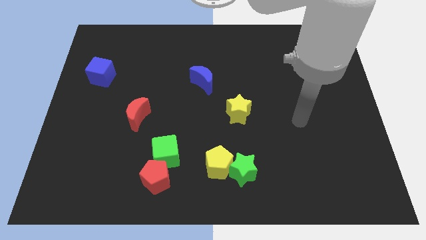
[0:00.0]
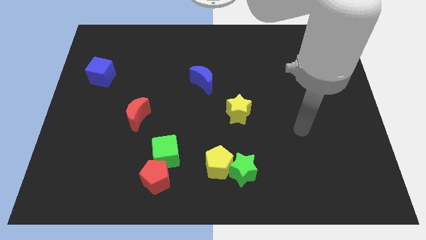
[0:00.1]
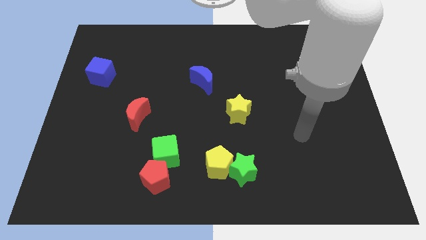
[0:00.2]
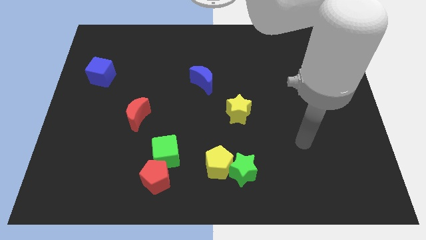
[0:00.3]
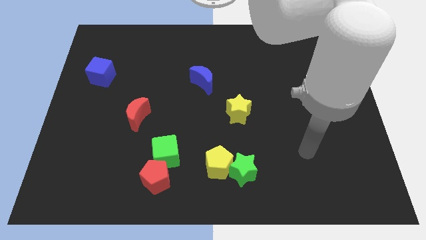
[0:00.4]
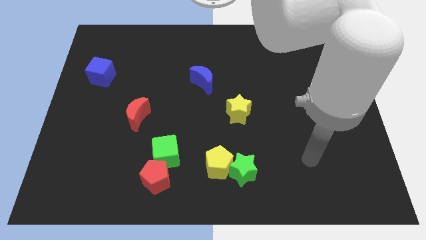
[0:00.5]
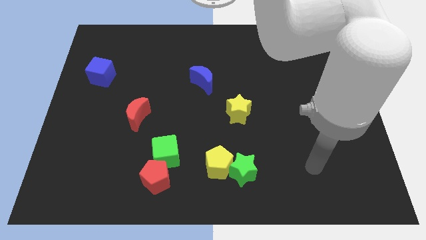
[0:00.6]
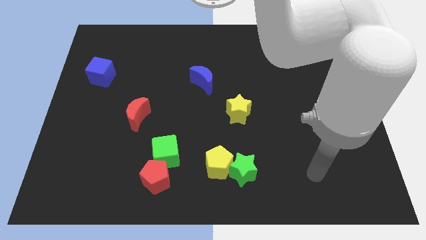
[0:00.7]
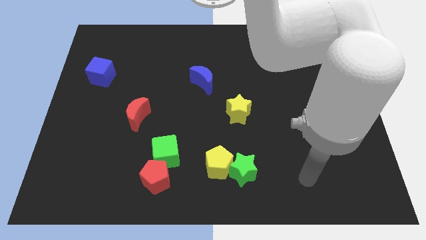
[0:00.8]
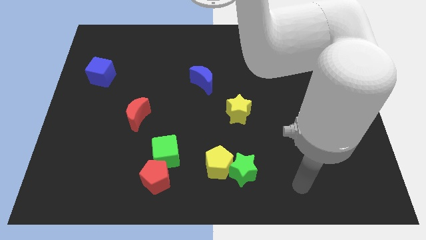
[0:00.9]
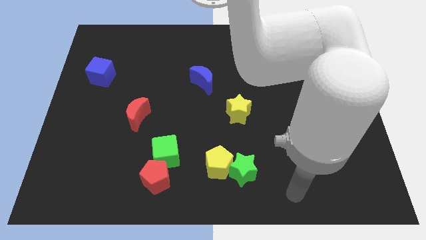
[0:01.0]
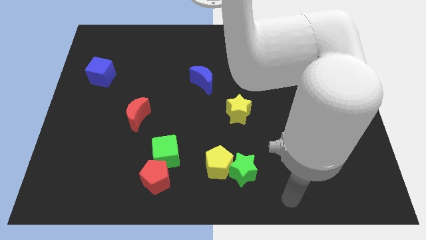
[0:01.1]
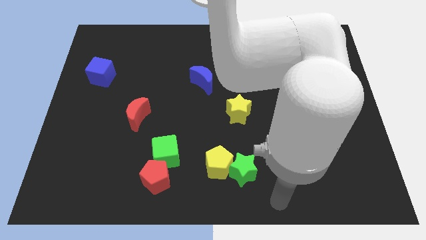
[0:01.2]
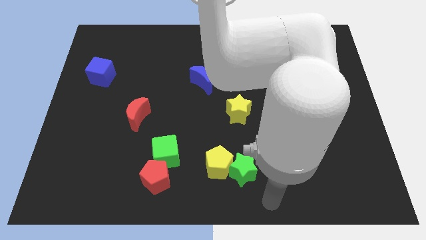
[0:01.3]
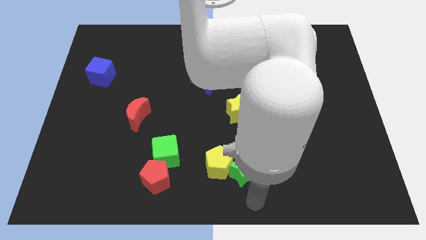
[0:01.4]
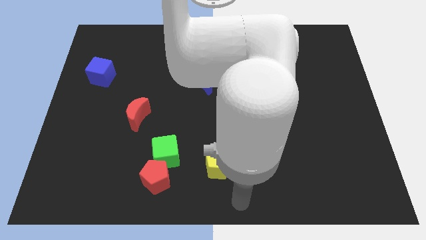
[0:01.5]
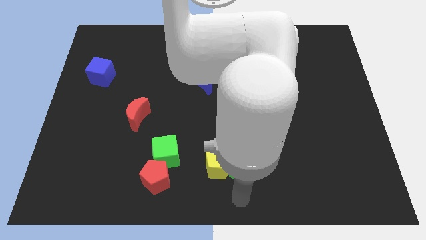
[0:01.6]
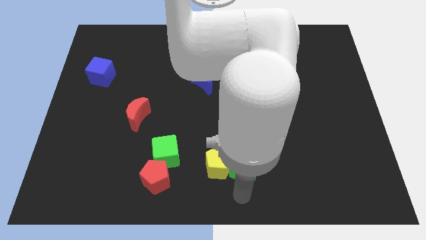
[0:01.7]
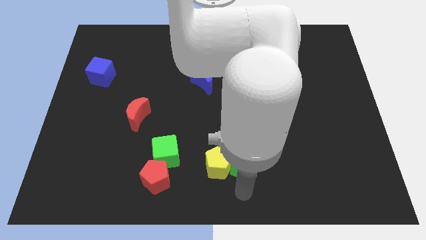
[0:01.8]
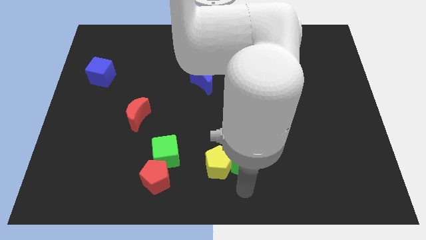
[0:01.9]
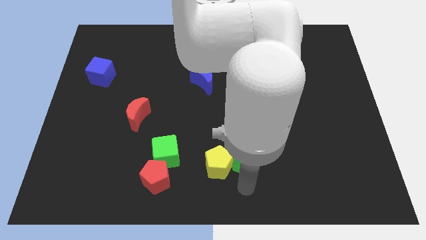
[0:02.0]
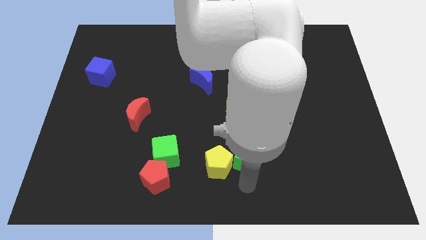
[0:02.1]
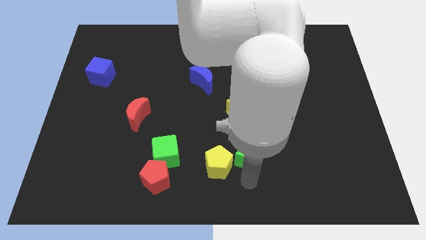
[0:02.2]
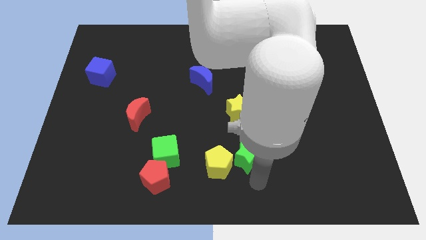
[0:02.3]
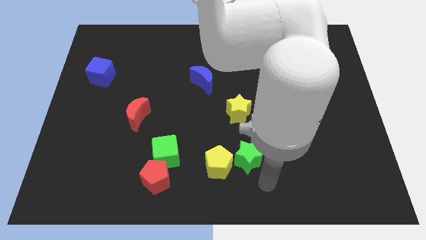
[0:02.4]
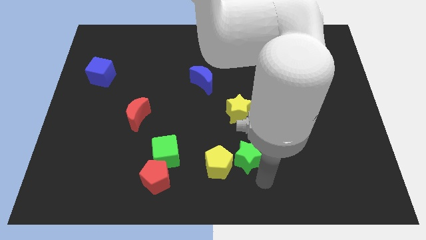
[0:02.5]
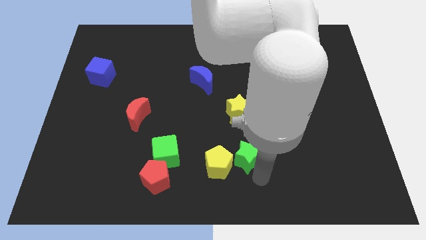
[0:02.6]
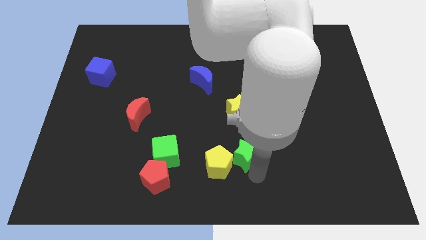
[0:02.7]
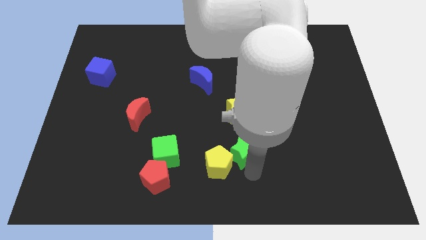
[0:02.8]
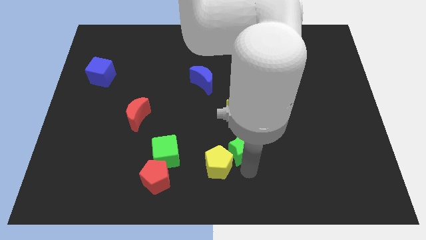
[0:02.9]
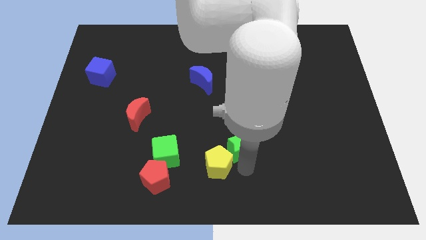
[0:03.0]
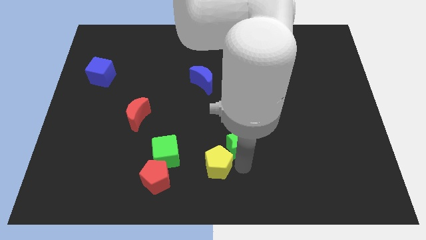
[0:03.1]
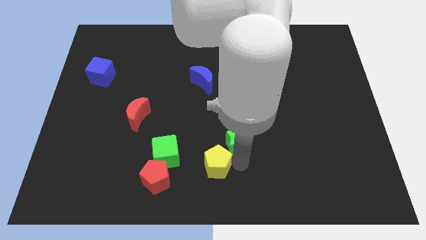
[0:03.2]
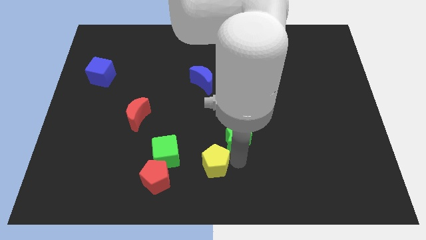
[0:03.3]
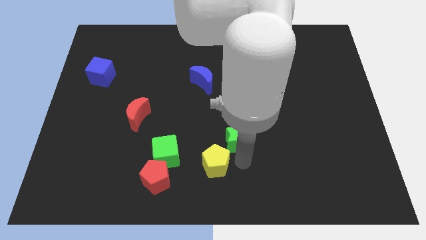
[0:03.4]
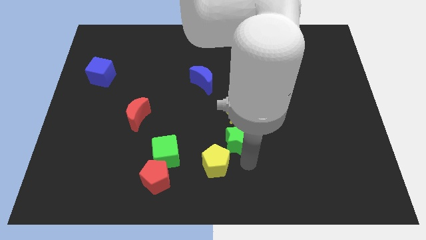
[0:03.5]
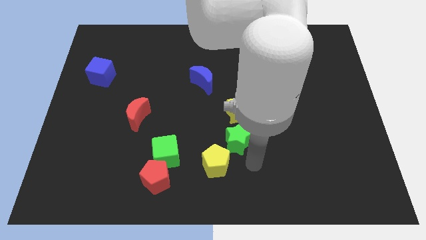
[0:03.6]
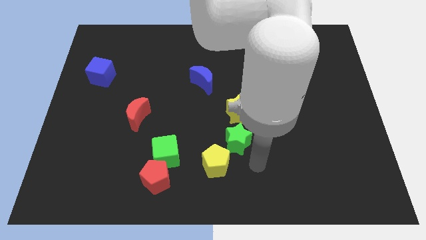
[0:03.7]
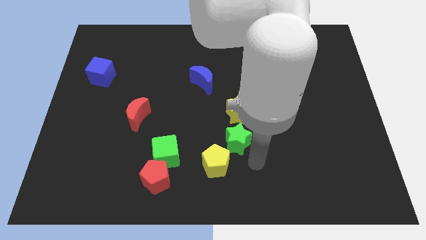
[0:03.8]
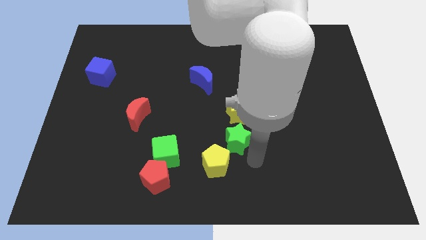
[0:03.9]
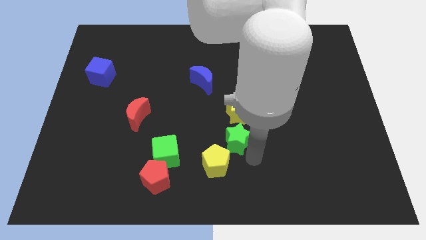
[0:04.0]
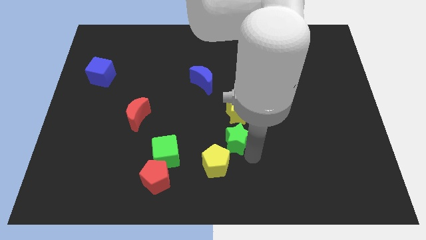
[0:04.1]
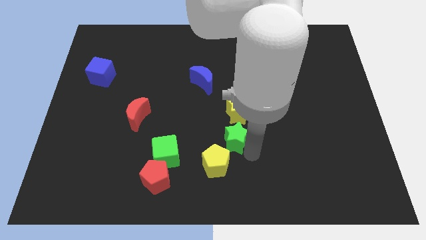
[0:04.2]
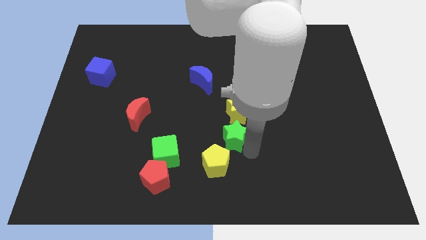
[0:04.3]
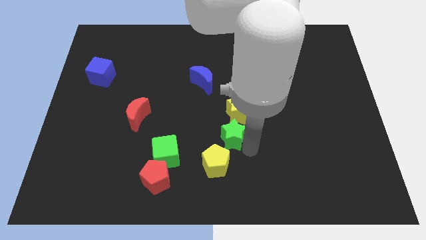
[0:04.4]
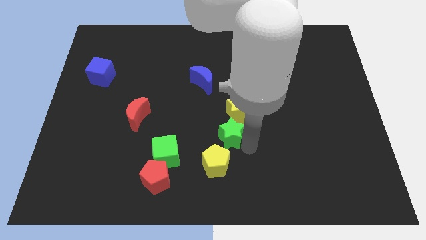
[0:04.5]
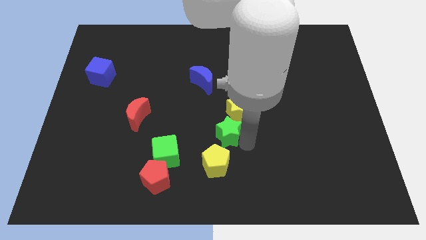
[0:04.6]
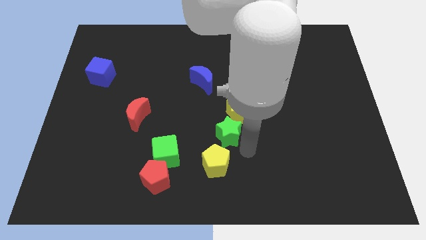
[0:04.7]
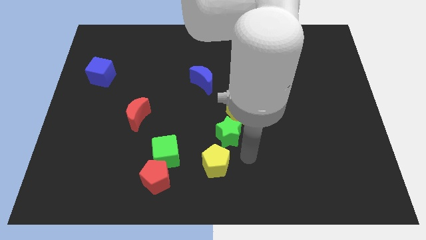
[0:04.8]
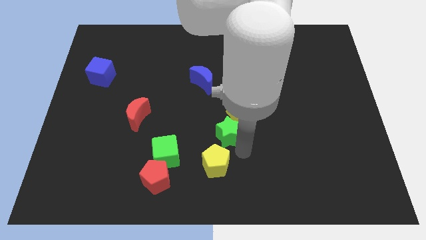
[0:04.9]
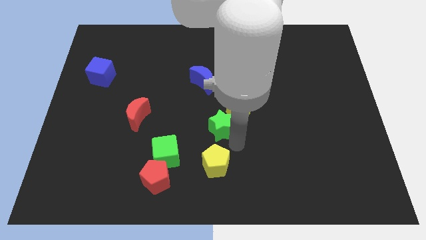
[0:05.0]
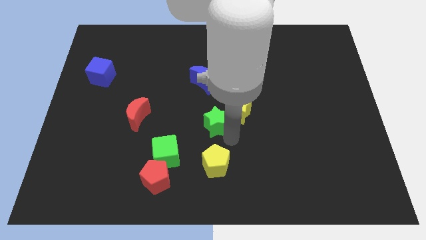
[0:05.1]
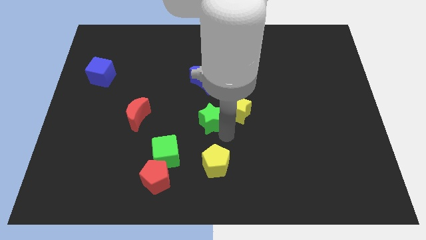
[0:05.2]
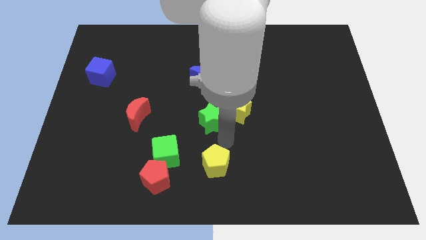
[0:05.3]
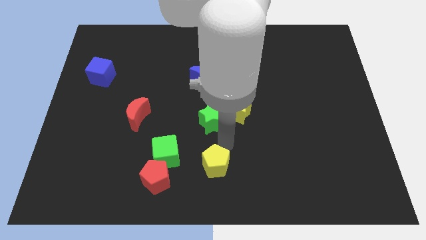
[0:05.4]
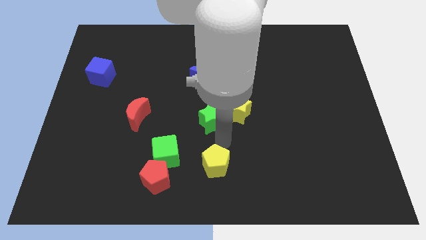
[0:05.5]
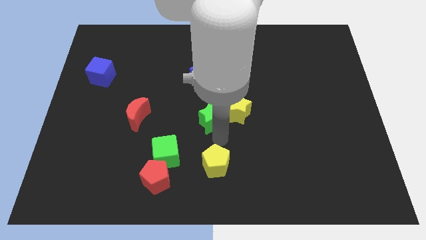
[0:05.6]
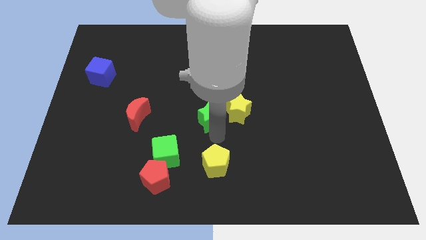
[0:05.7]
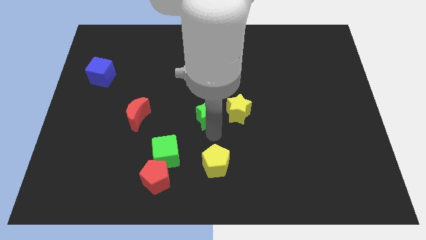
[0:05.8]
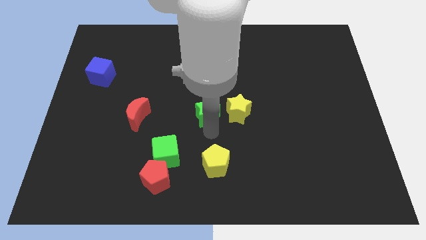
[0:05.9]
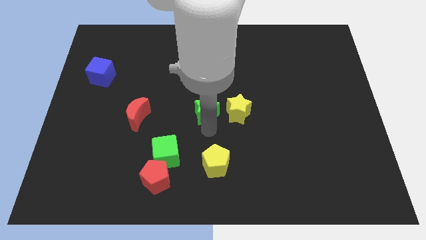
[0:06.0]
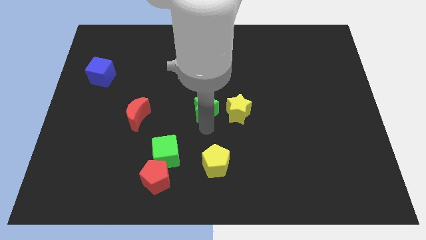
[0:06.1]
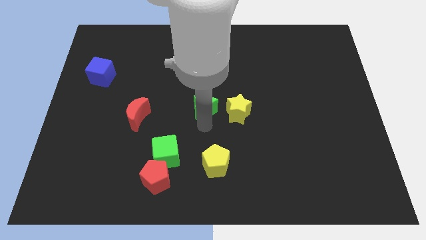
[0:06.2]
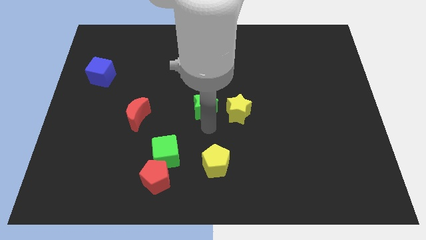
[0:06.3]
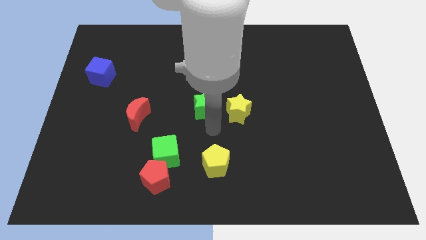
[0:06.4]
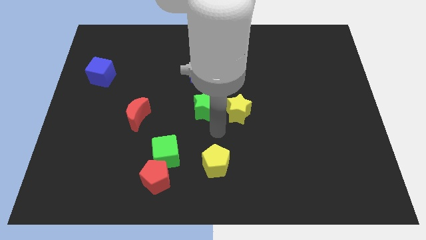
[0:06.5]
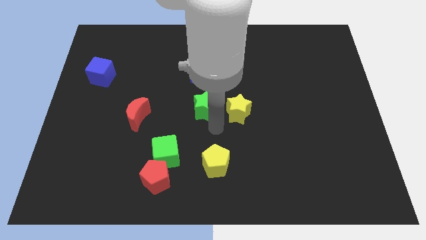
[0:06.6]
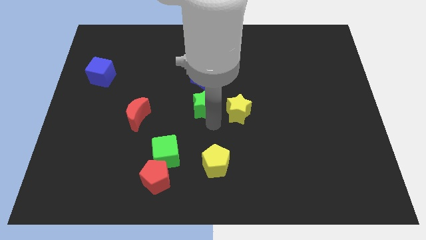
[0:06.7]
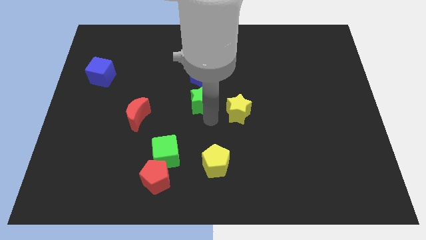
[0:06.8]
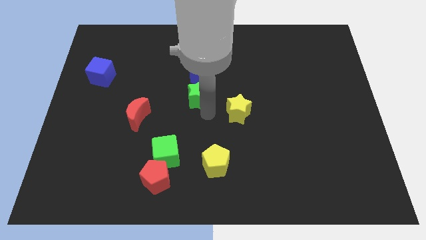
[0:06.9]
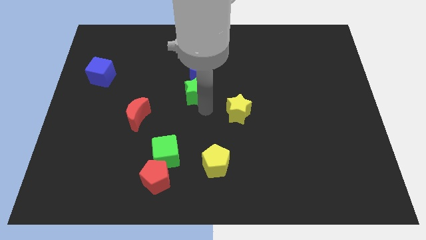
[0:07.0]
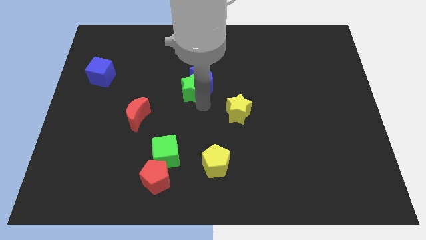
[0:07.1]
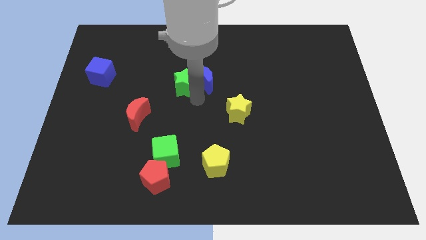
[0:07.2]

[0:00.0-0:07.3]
move the green star to the top left side of the blue moon
